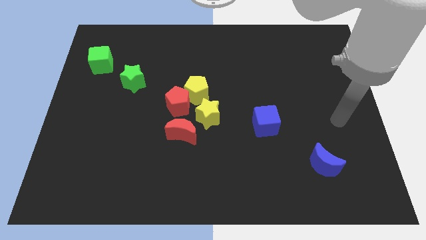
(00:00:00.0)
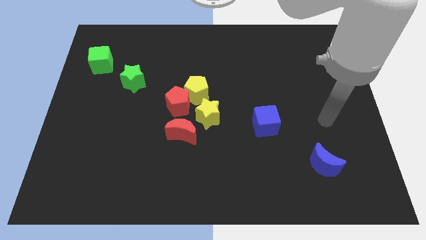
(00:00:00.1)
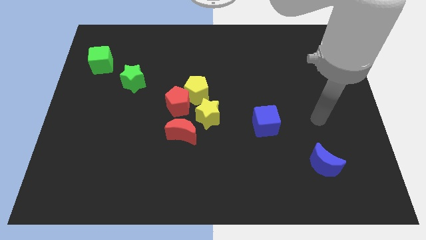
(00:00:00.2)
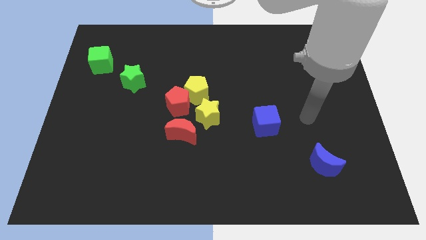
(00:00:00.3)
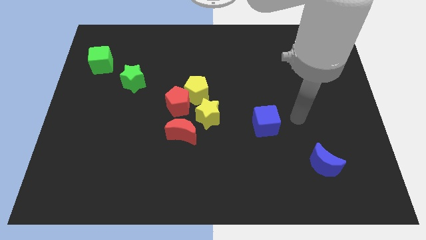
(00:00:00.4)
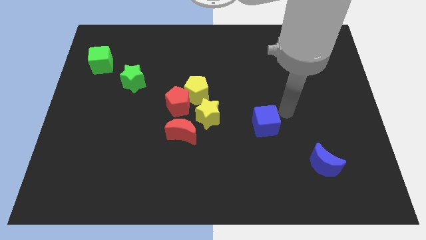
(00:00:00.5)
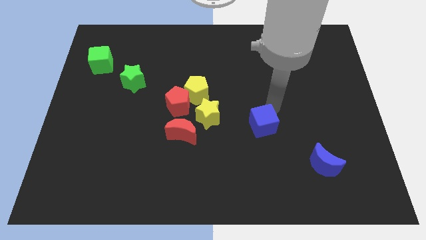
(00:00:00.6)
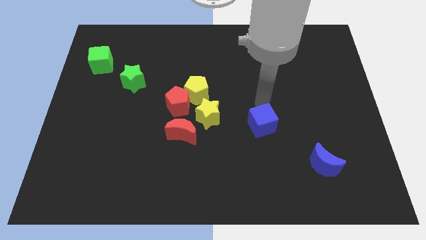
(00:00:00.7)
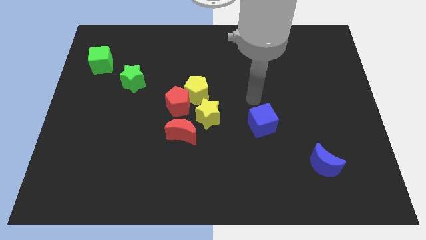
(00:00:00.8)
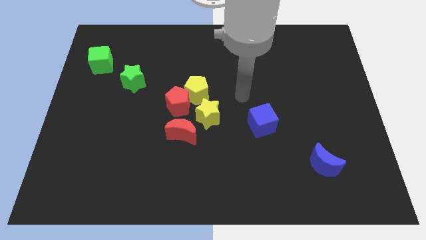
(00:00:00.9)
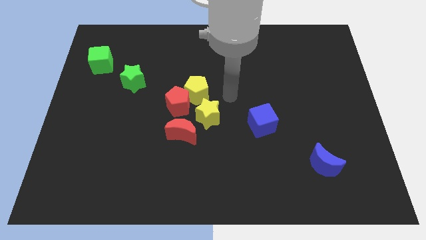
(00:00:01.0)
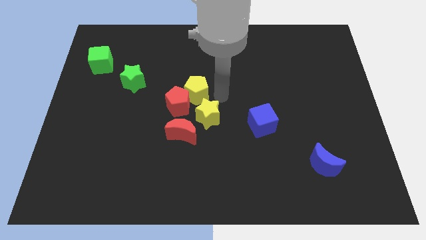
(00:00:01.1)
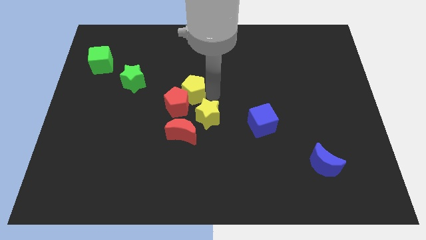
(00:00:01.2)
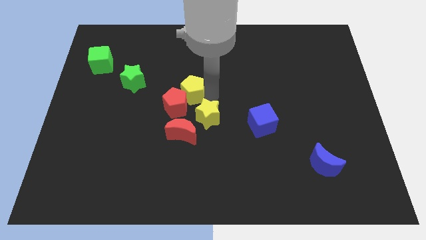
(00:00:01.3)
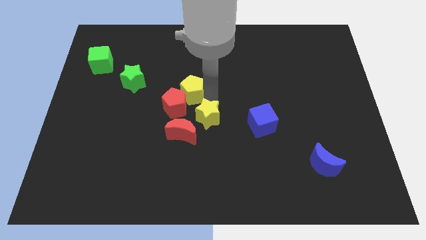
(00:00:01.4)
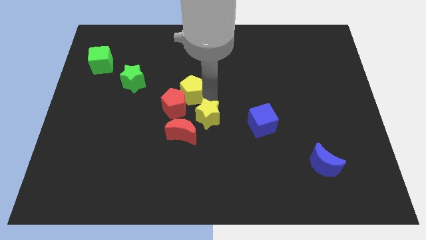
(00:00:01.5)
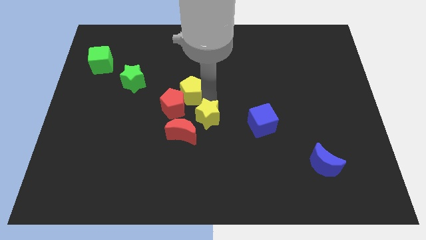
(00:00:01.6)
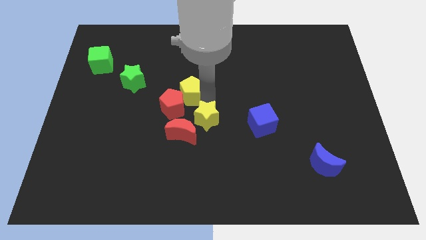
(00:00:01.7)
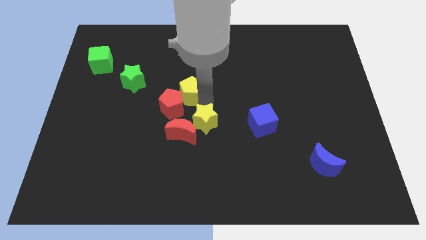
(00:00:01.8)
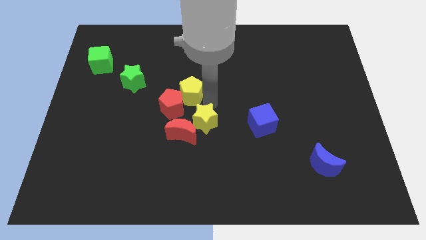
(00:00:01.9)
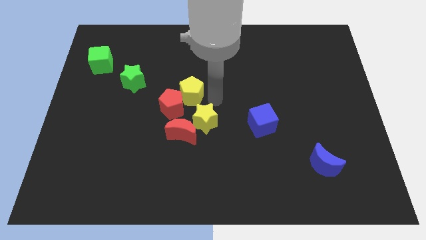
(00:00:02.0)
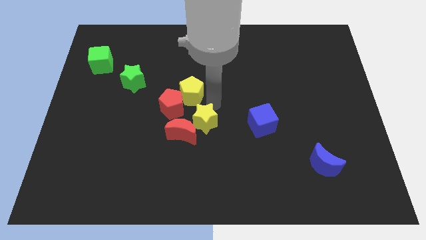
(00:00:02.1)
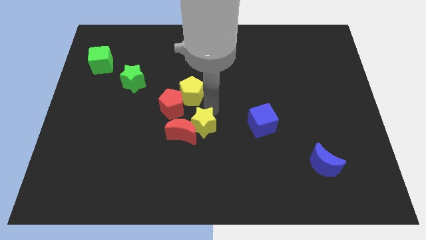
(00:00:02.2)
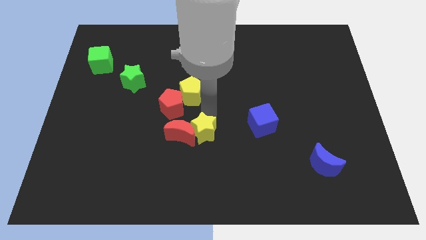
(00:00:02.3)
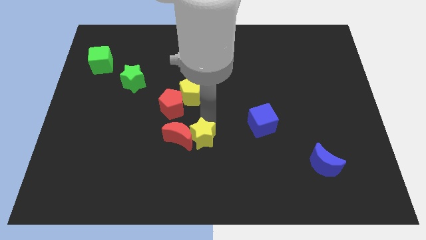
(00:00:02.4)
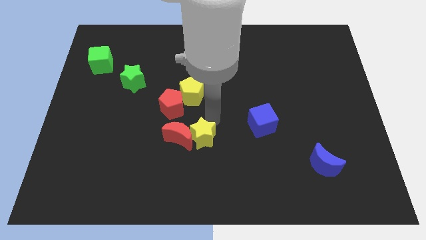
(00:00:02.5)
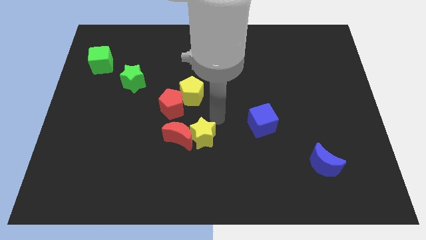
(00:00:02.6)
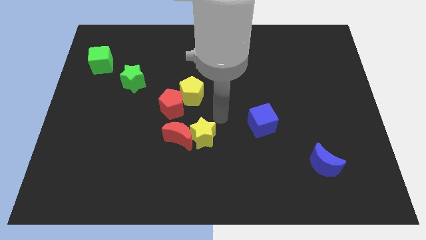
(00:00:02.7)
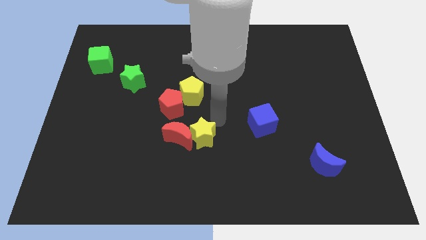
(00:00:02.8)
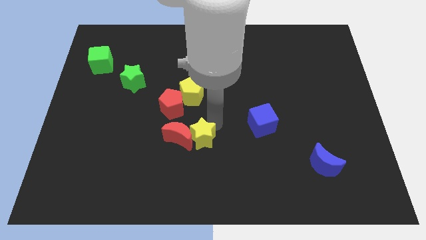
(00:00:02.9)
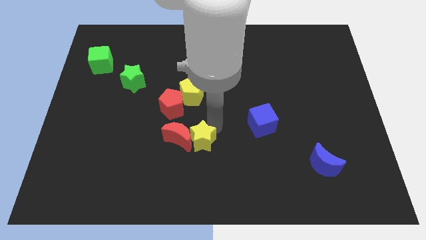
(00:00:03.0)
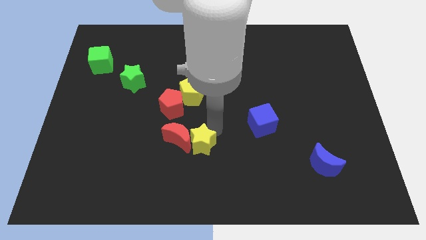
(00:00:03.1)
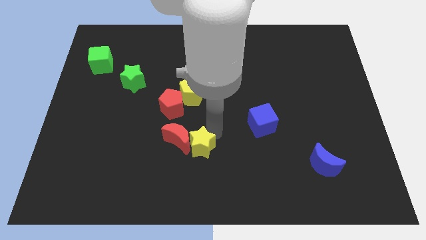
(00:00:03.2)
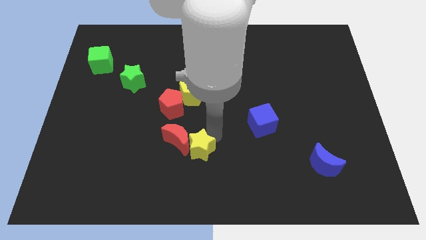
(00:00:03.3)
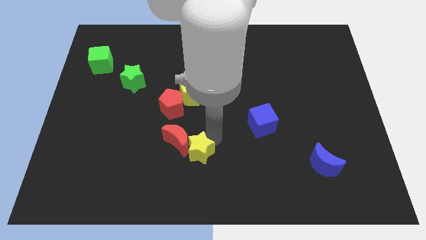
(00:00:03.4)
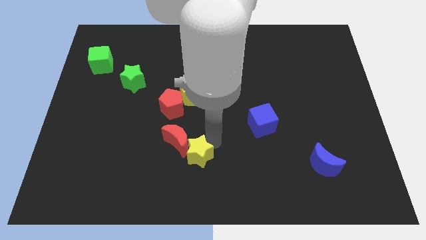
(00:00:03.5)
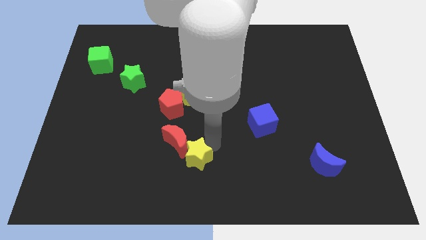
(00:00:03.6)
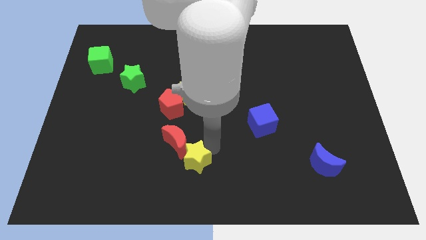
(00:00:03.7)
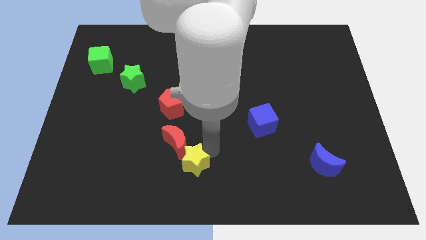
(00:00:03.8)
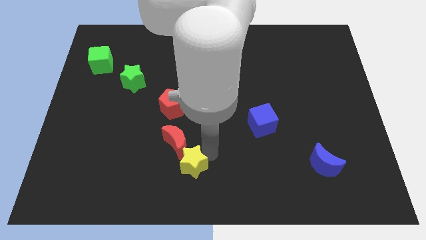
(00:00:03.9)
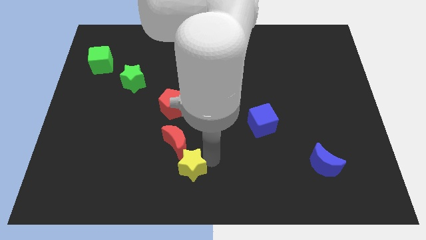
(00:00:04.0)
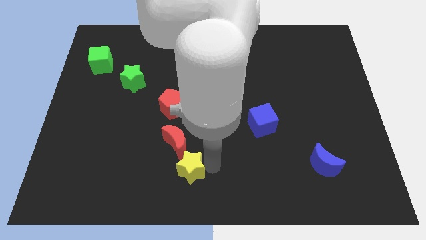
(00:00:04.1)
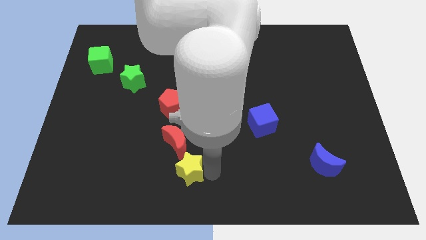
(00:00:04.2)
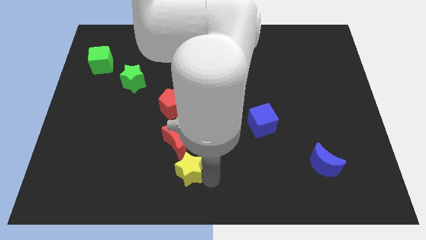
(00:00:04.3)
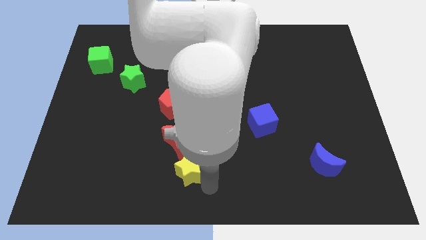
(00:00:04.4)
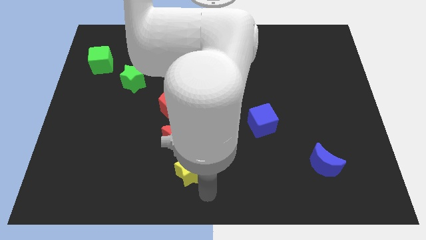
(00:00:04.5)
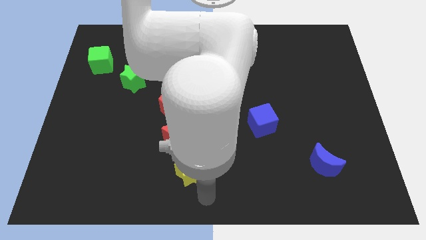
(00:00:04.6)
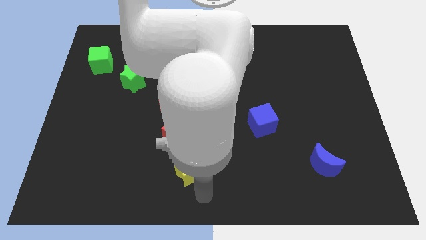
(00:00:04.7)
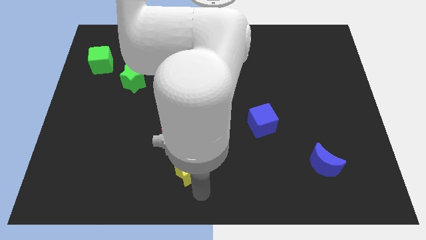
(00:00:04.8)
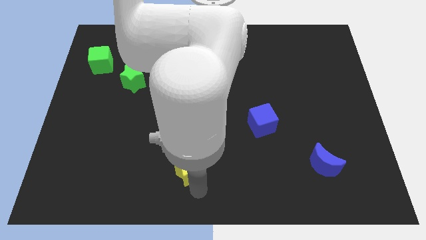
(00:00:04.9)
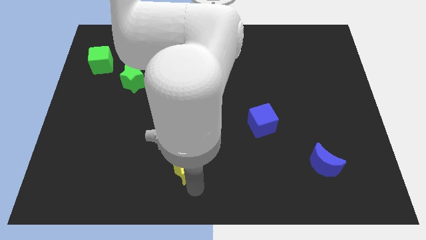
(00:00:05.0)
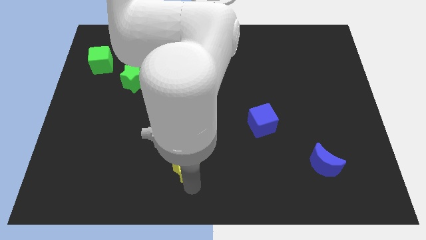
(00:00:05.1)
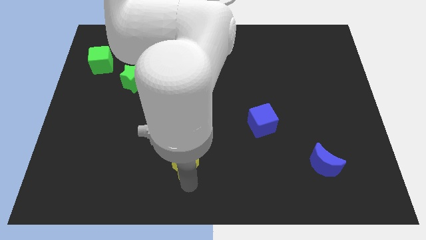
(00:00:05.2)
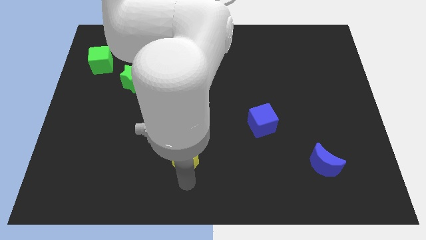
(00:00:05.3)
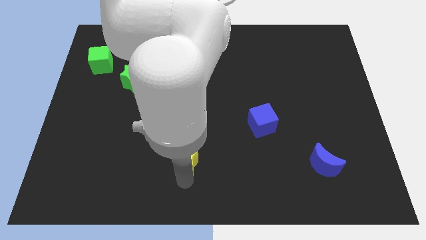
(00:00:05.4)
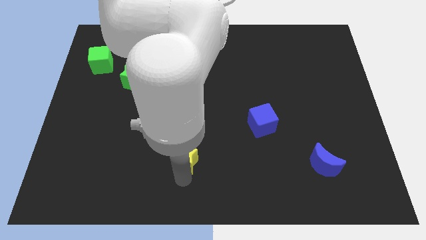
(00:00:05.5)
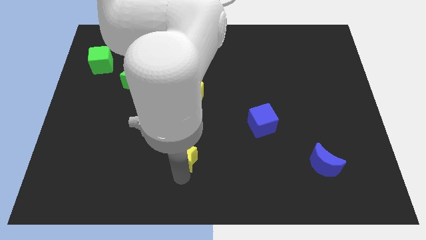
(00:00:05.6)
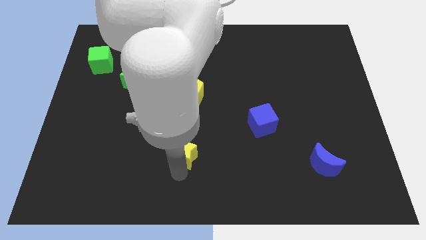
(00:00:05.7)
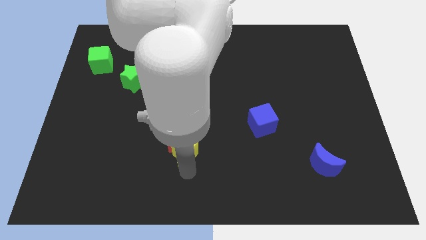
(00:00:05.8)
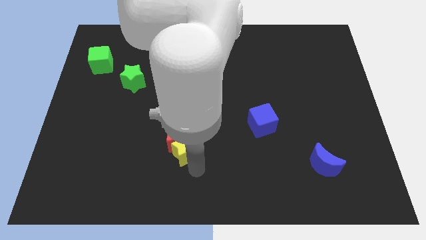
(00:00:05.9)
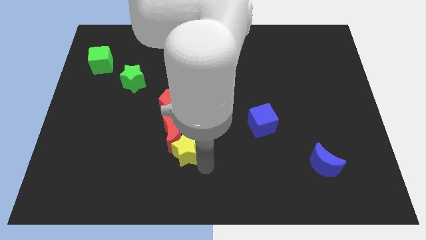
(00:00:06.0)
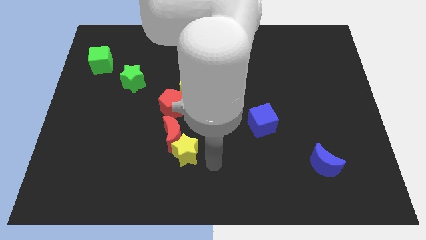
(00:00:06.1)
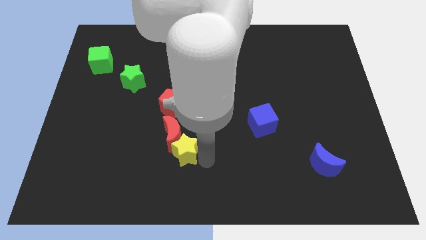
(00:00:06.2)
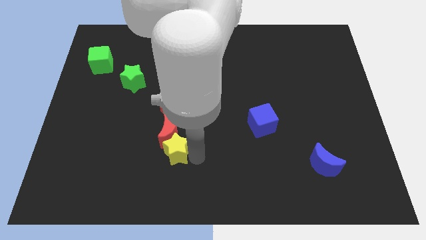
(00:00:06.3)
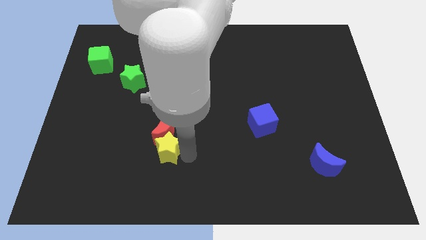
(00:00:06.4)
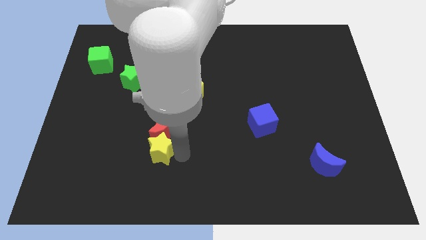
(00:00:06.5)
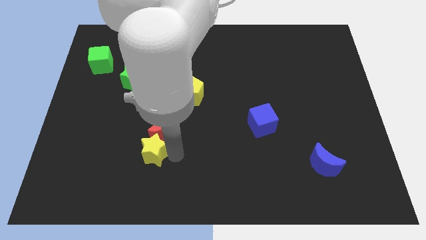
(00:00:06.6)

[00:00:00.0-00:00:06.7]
slightly move the yellow star to the left

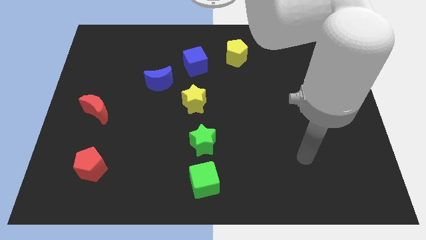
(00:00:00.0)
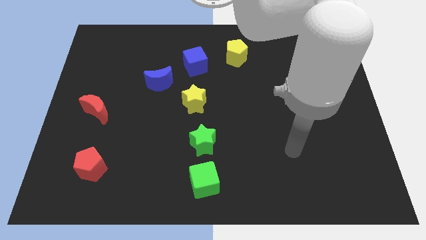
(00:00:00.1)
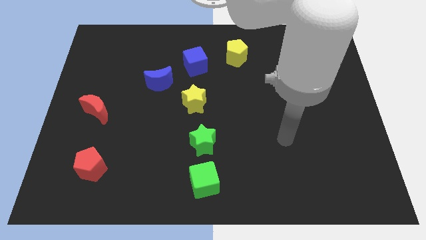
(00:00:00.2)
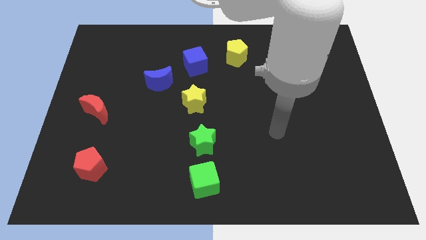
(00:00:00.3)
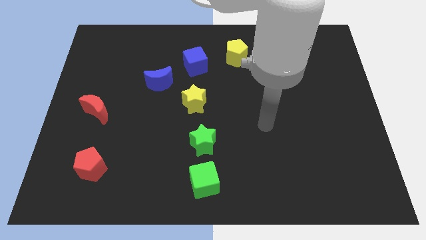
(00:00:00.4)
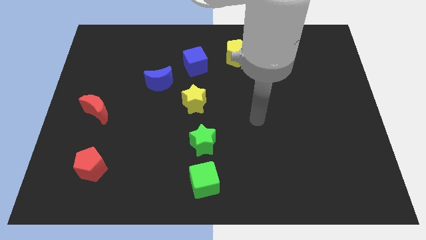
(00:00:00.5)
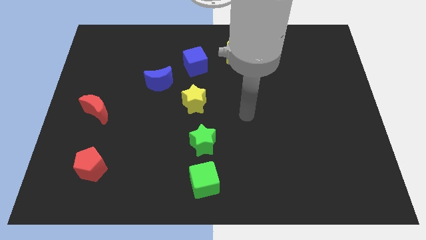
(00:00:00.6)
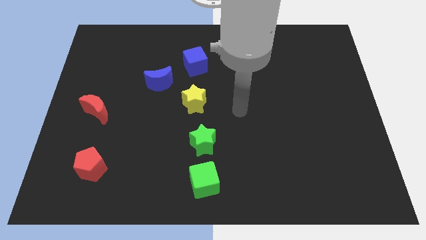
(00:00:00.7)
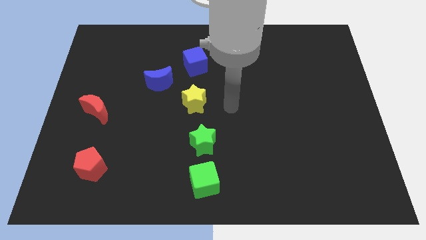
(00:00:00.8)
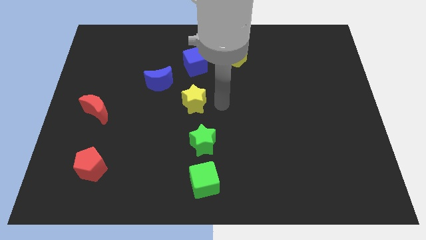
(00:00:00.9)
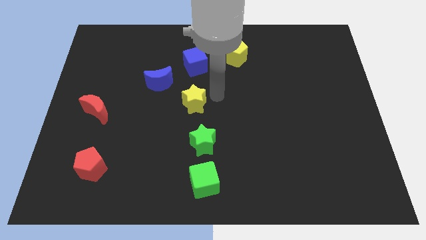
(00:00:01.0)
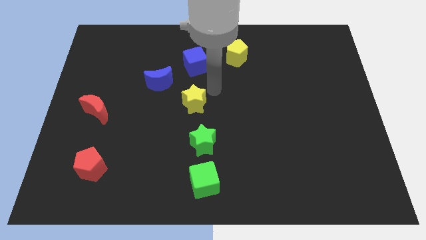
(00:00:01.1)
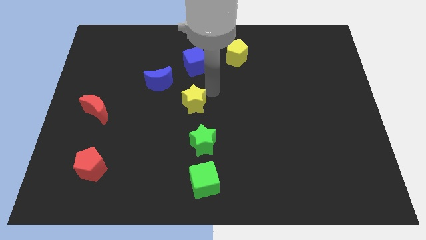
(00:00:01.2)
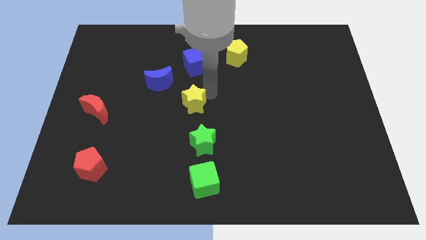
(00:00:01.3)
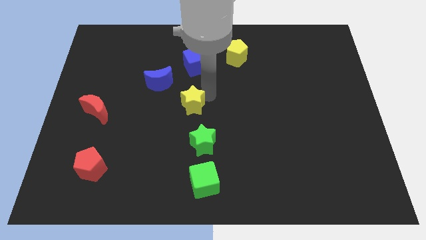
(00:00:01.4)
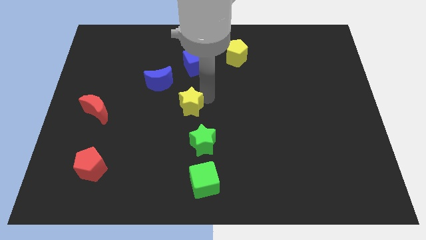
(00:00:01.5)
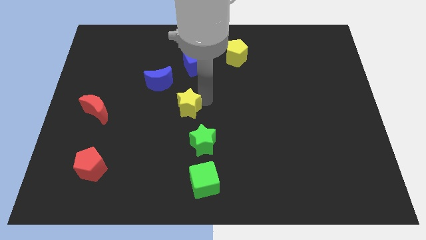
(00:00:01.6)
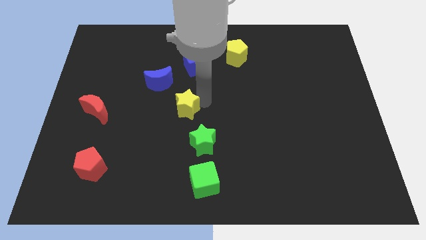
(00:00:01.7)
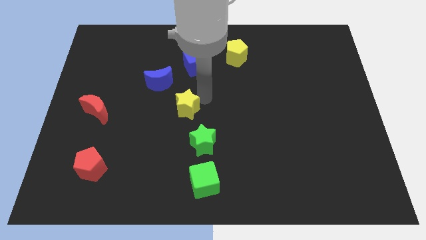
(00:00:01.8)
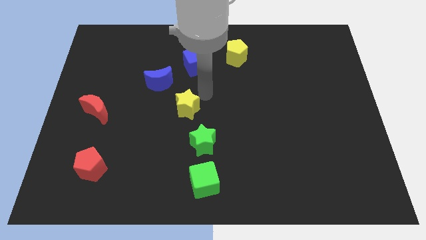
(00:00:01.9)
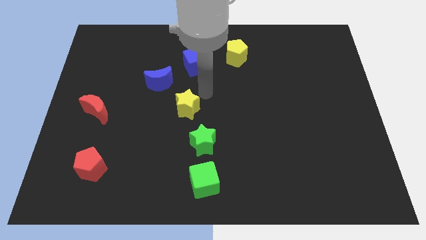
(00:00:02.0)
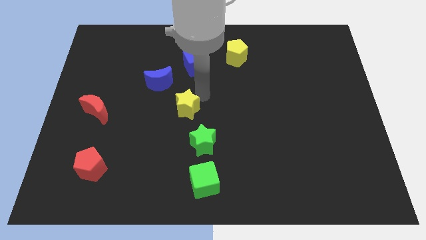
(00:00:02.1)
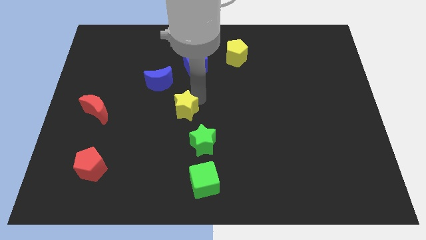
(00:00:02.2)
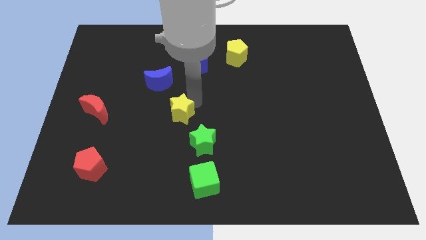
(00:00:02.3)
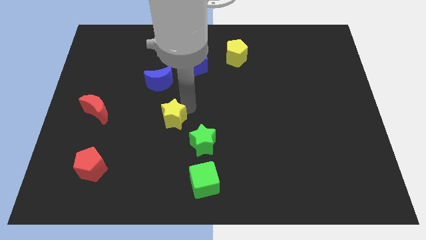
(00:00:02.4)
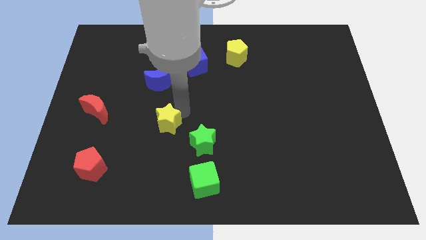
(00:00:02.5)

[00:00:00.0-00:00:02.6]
slightly move the yellow star diagonally down and to the left
